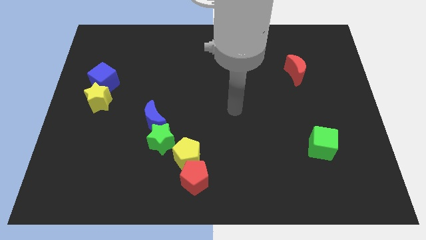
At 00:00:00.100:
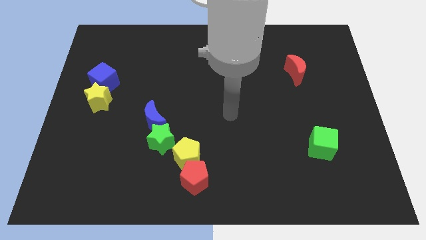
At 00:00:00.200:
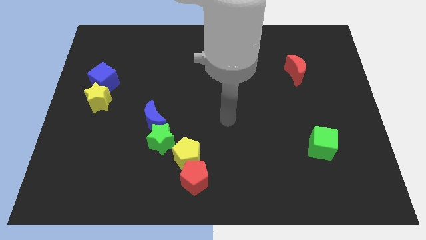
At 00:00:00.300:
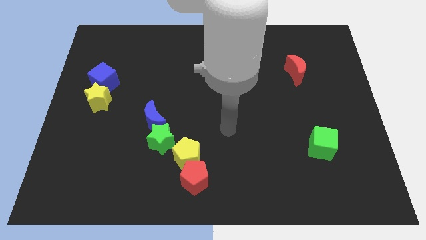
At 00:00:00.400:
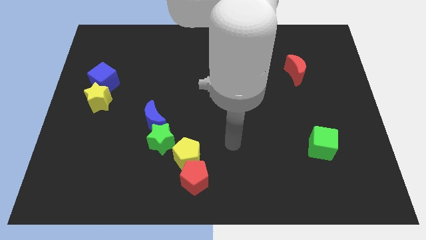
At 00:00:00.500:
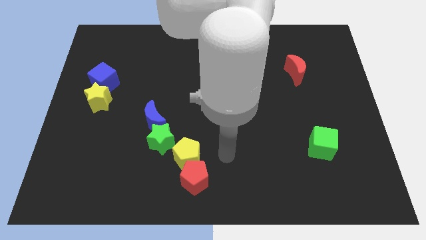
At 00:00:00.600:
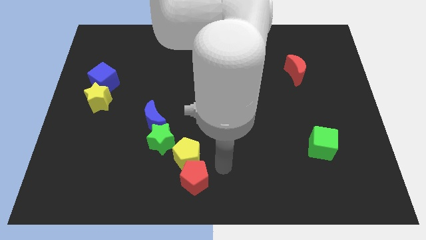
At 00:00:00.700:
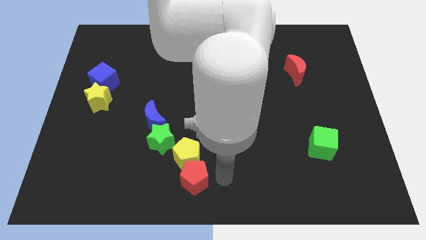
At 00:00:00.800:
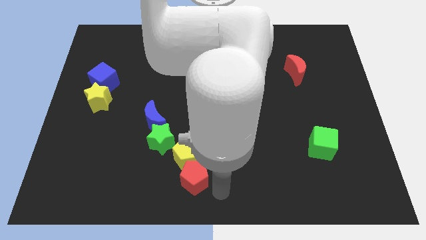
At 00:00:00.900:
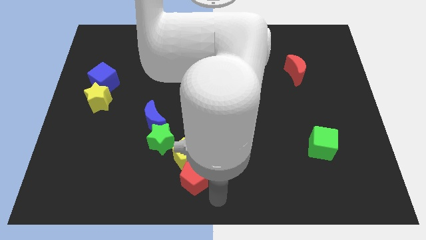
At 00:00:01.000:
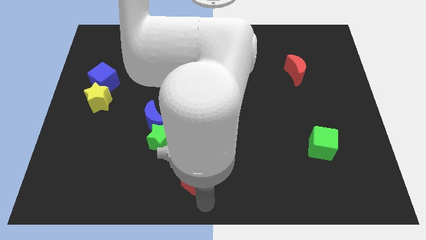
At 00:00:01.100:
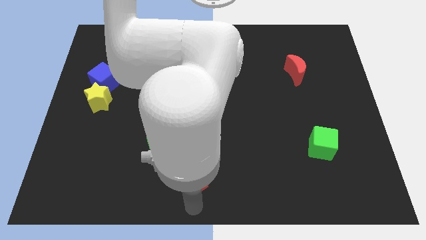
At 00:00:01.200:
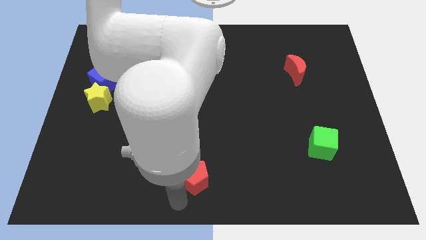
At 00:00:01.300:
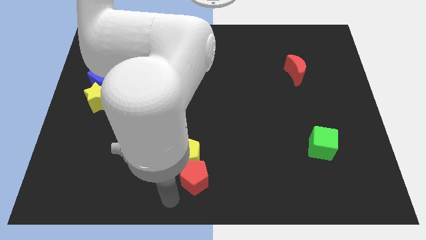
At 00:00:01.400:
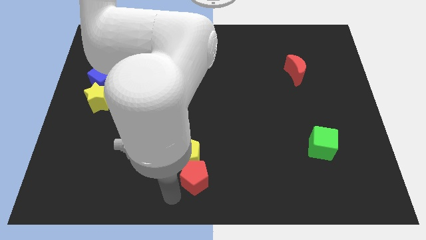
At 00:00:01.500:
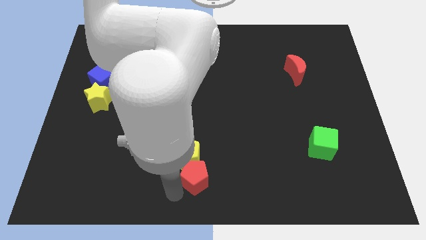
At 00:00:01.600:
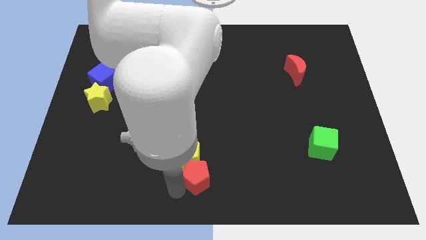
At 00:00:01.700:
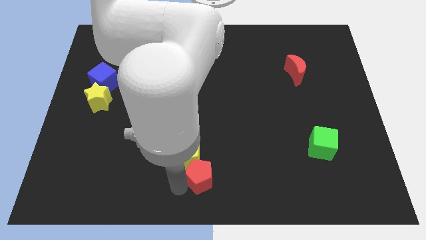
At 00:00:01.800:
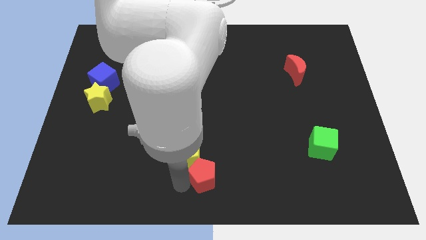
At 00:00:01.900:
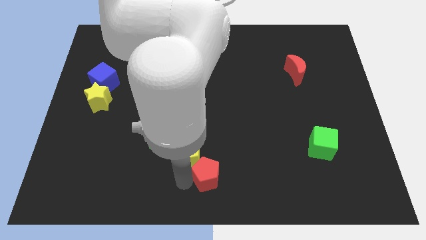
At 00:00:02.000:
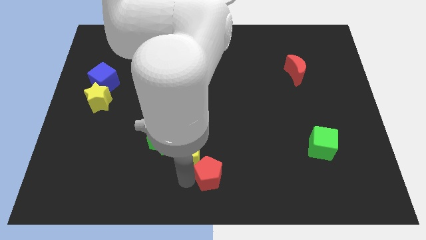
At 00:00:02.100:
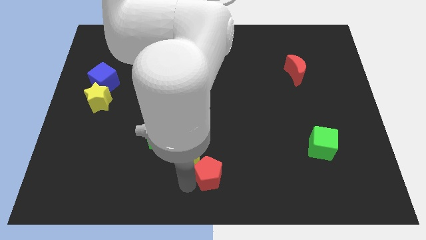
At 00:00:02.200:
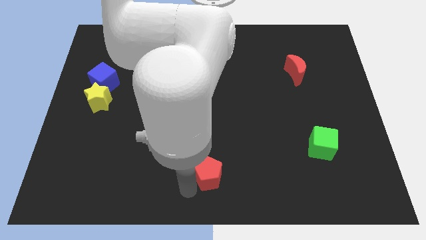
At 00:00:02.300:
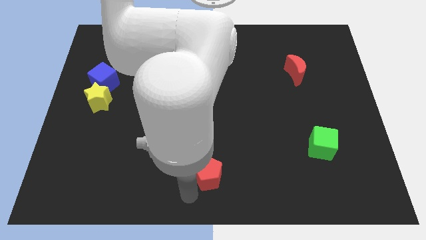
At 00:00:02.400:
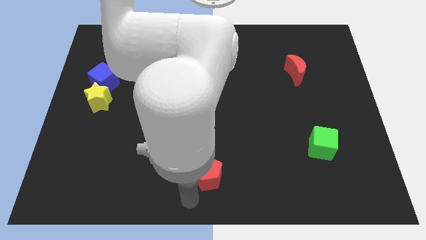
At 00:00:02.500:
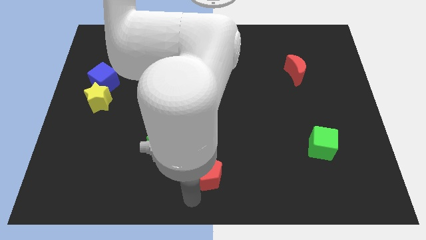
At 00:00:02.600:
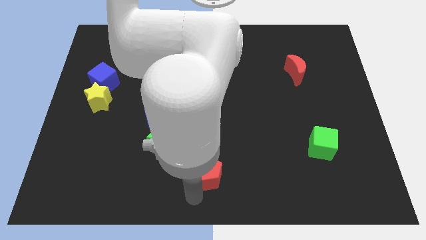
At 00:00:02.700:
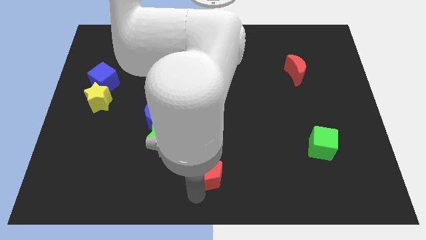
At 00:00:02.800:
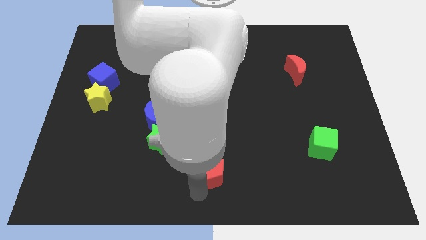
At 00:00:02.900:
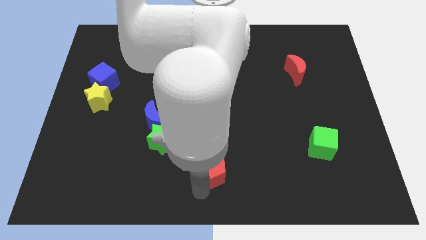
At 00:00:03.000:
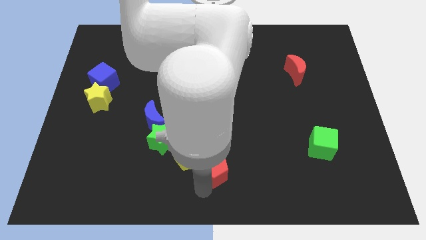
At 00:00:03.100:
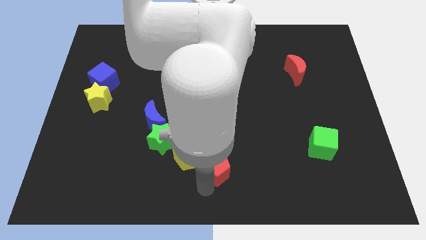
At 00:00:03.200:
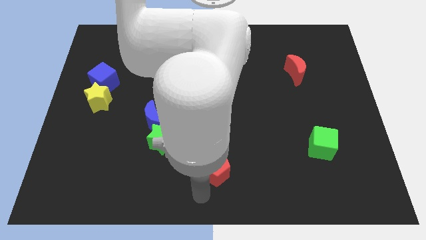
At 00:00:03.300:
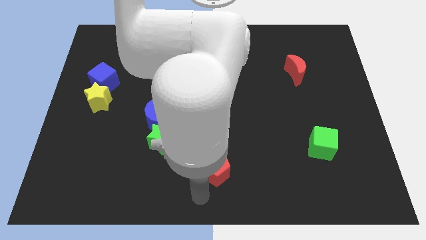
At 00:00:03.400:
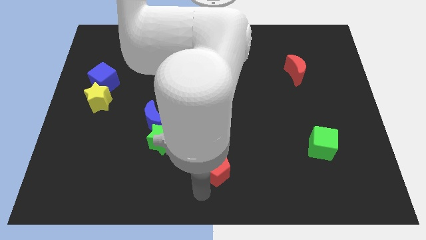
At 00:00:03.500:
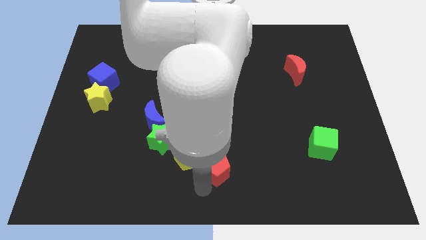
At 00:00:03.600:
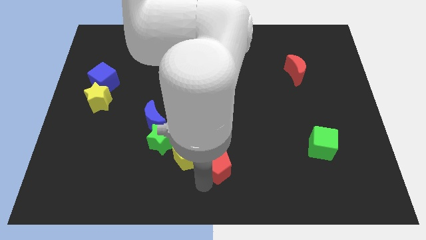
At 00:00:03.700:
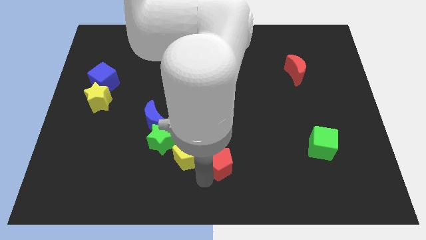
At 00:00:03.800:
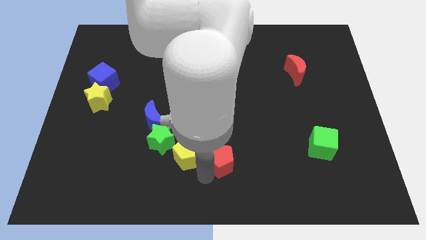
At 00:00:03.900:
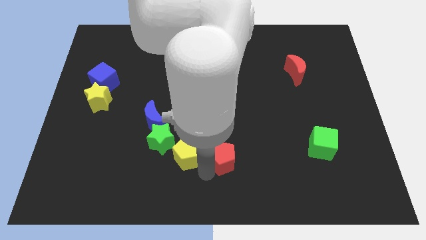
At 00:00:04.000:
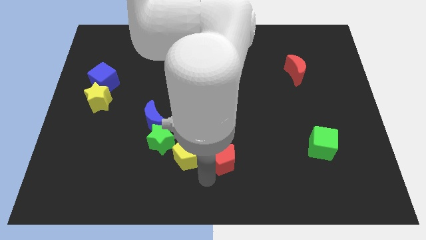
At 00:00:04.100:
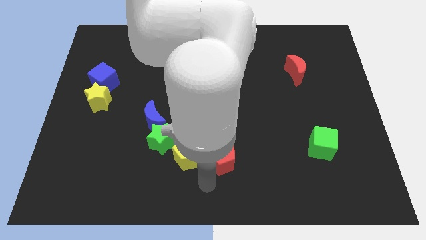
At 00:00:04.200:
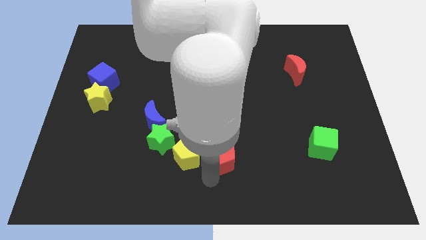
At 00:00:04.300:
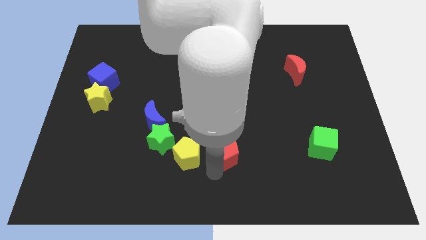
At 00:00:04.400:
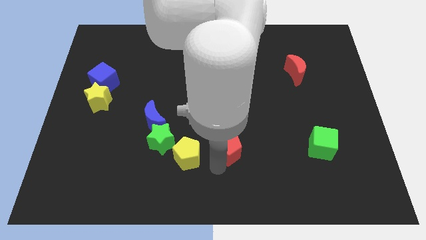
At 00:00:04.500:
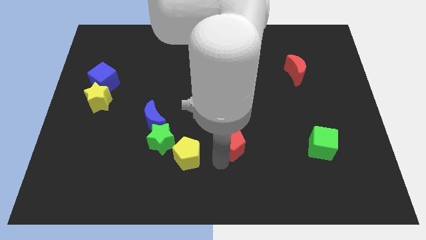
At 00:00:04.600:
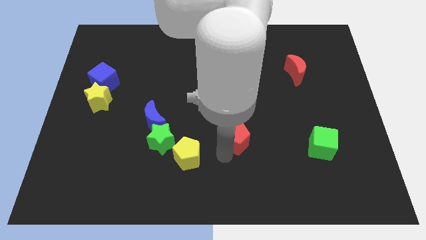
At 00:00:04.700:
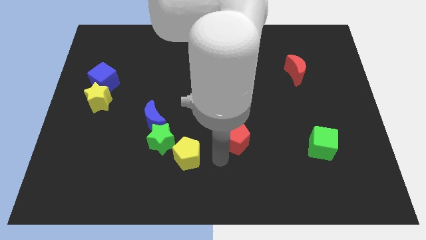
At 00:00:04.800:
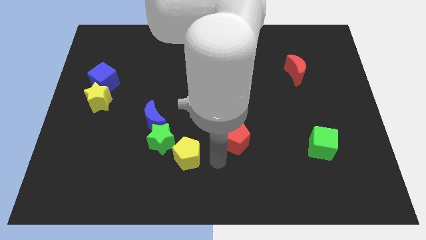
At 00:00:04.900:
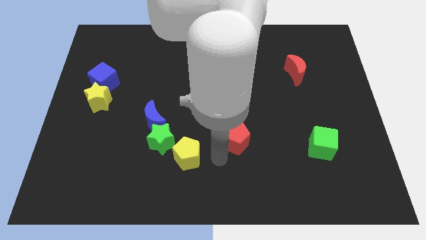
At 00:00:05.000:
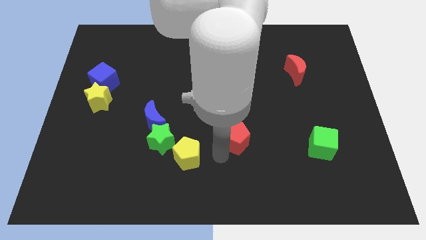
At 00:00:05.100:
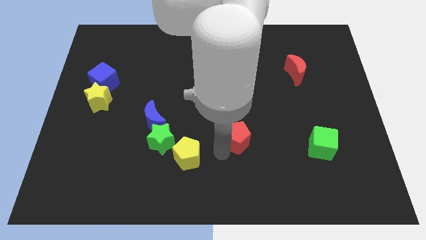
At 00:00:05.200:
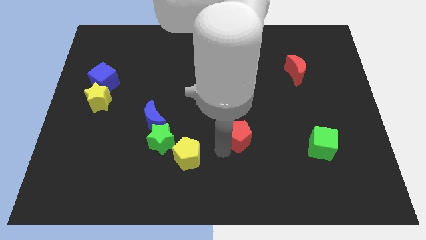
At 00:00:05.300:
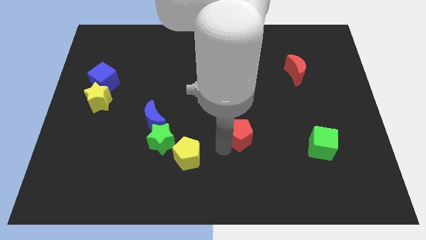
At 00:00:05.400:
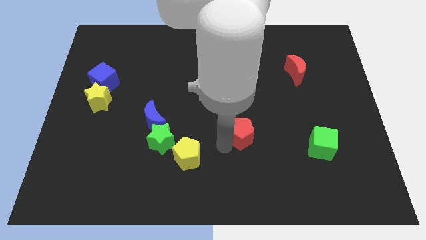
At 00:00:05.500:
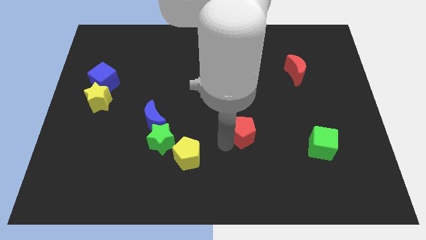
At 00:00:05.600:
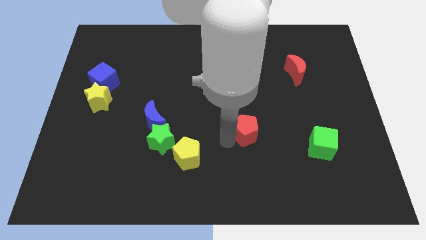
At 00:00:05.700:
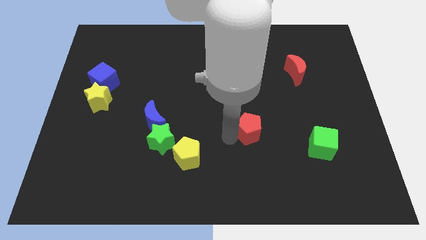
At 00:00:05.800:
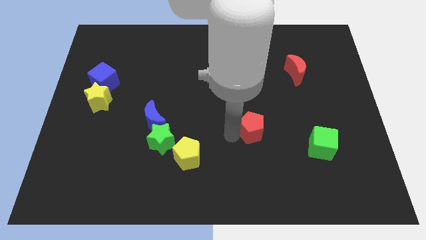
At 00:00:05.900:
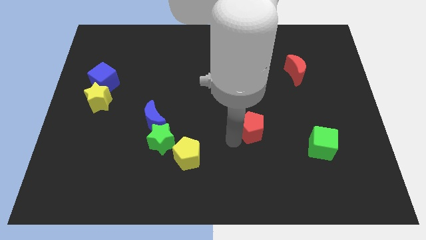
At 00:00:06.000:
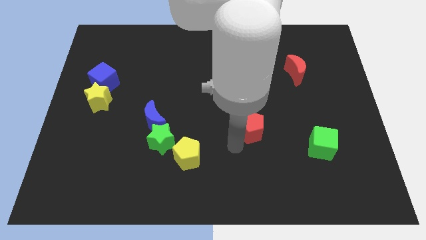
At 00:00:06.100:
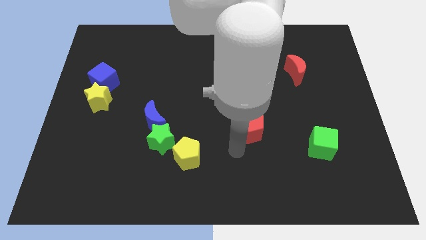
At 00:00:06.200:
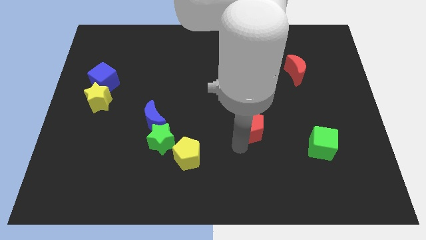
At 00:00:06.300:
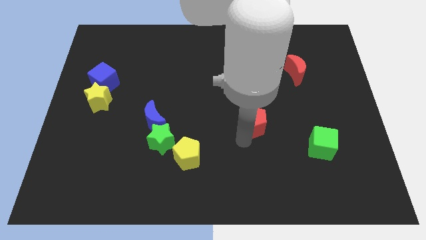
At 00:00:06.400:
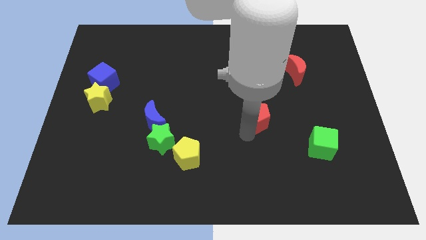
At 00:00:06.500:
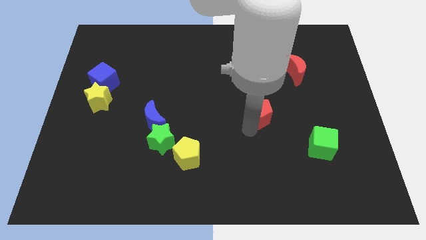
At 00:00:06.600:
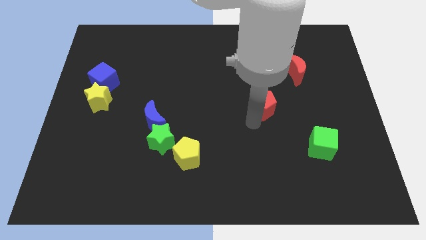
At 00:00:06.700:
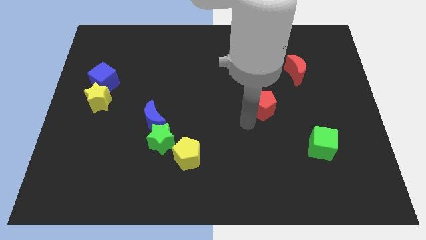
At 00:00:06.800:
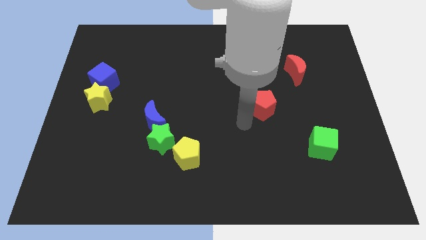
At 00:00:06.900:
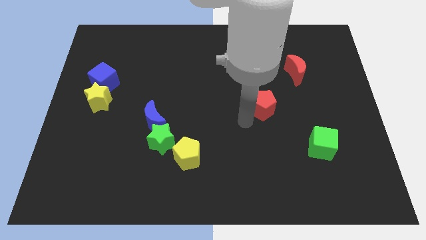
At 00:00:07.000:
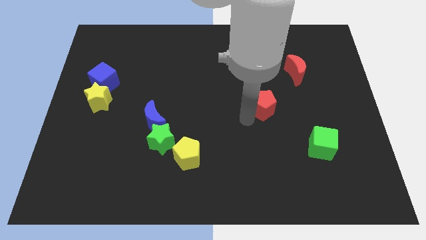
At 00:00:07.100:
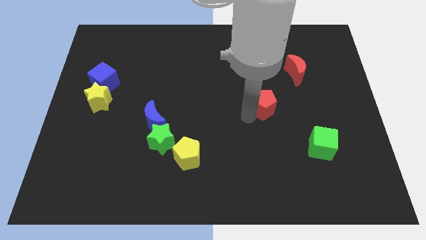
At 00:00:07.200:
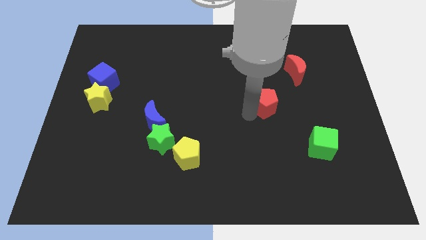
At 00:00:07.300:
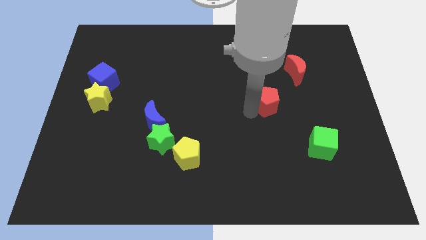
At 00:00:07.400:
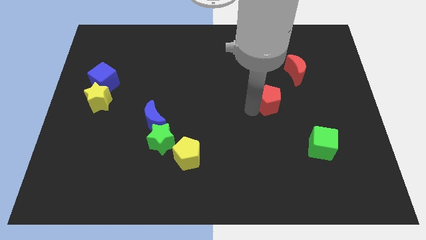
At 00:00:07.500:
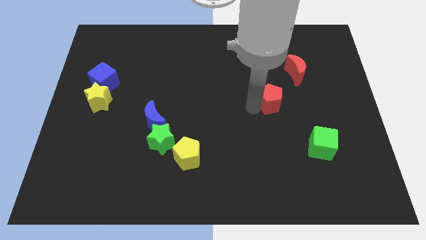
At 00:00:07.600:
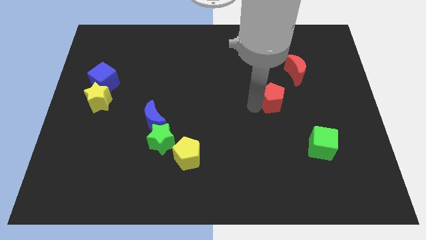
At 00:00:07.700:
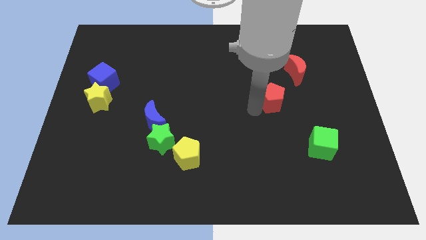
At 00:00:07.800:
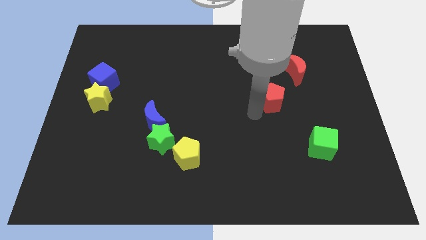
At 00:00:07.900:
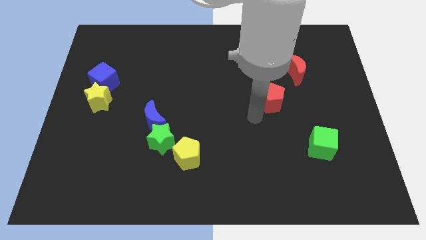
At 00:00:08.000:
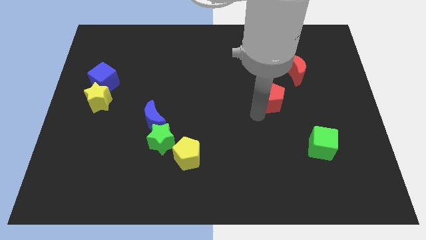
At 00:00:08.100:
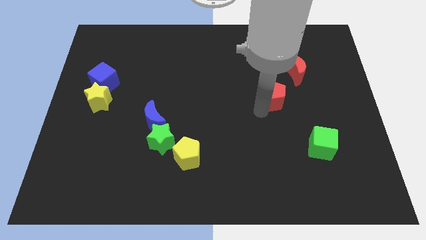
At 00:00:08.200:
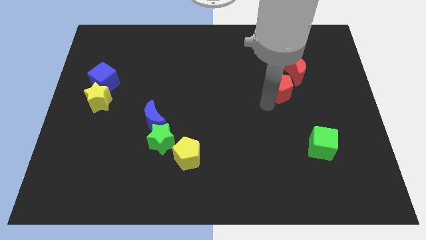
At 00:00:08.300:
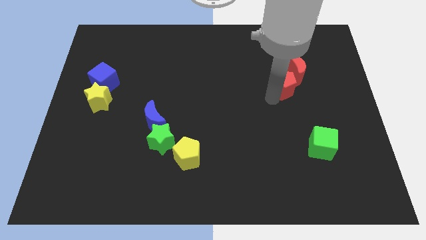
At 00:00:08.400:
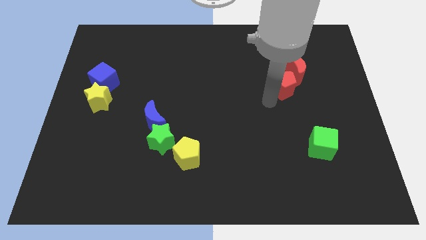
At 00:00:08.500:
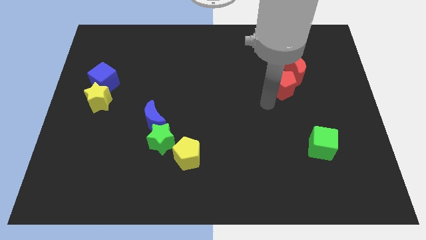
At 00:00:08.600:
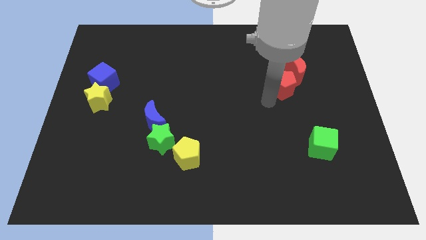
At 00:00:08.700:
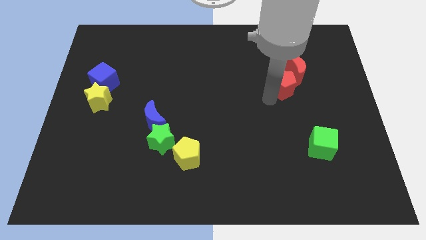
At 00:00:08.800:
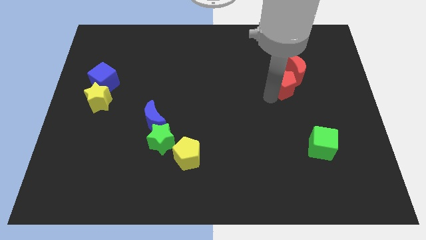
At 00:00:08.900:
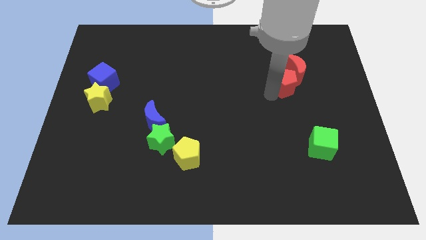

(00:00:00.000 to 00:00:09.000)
slide the red pentagon close to the red moon
